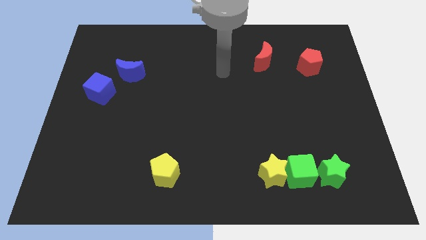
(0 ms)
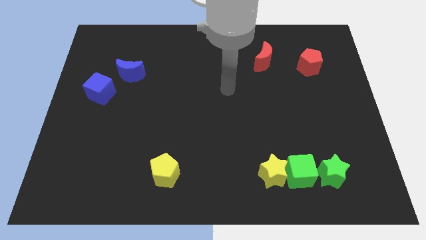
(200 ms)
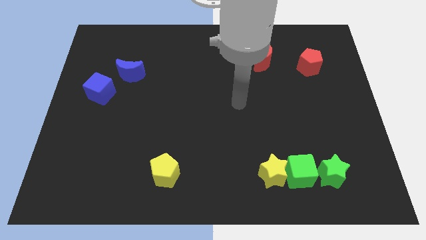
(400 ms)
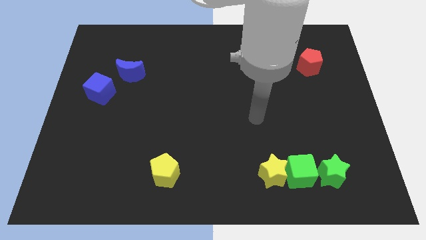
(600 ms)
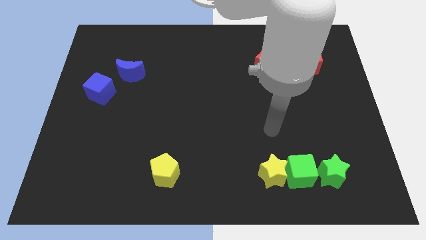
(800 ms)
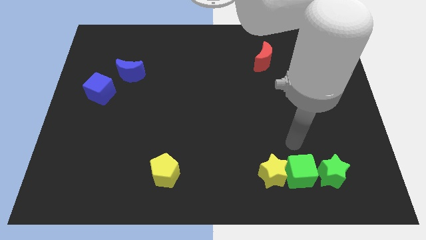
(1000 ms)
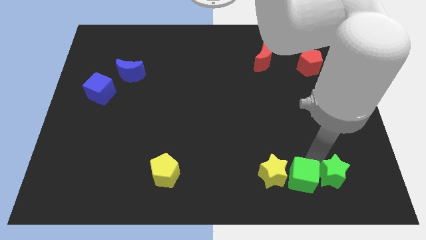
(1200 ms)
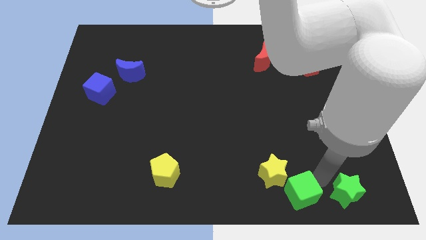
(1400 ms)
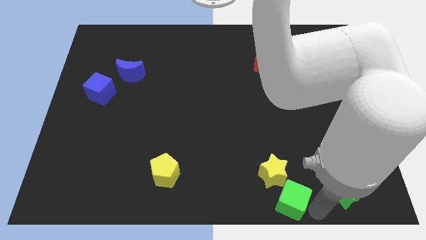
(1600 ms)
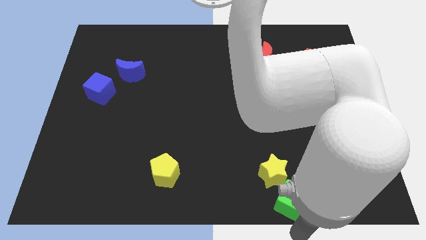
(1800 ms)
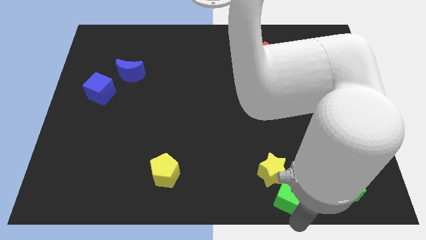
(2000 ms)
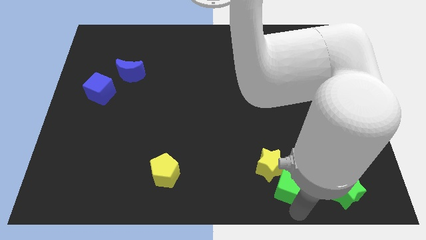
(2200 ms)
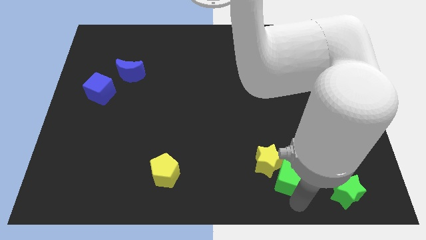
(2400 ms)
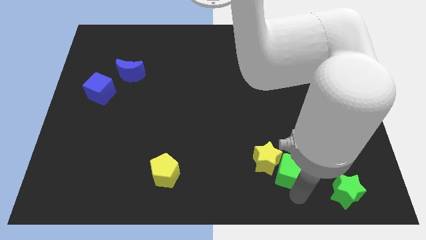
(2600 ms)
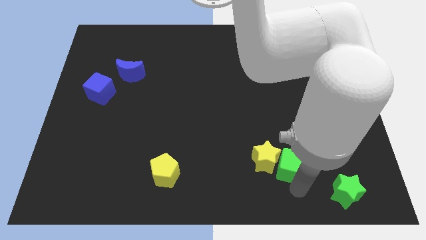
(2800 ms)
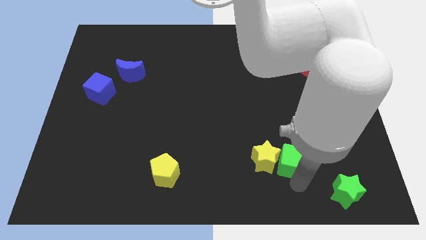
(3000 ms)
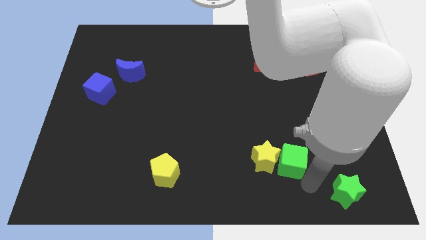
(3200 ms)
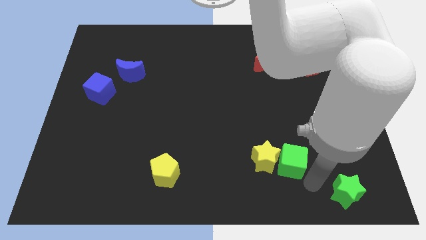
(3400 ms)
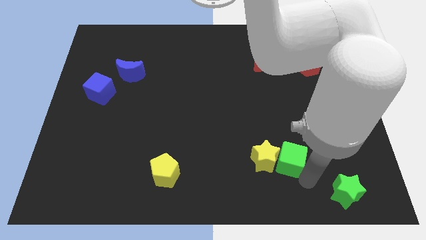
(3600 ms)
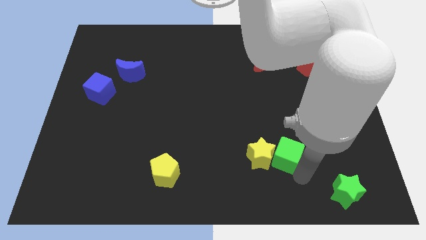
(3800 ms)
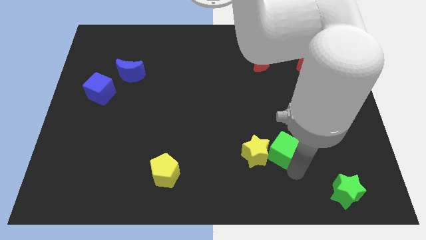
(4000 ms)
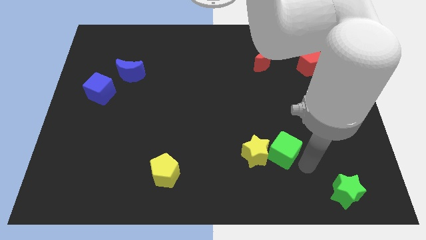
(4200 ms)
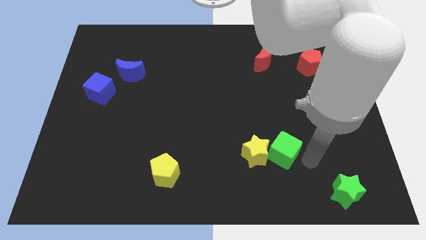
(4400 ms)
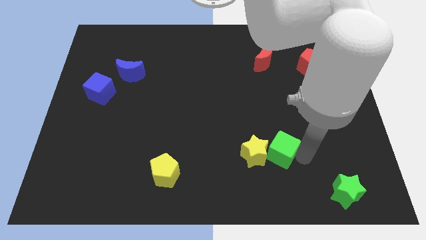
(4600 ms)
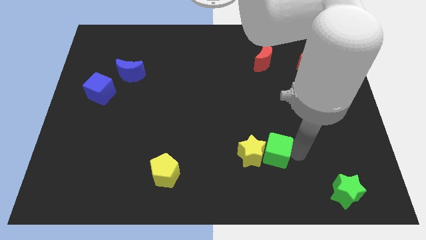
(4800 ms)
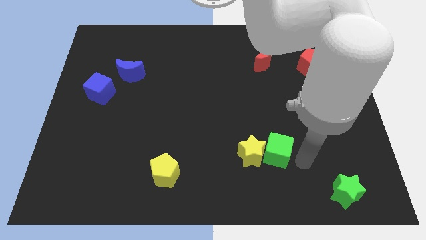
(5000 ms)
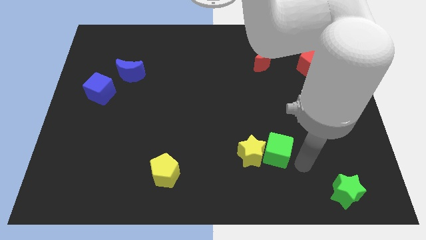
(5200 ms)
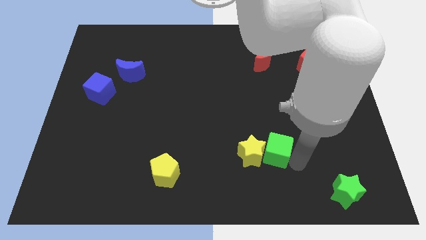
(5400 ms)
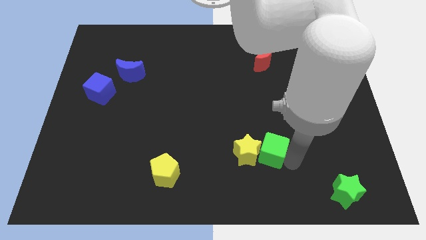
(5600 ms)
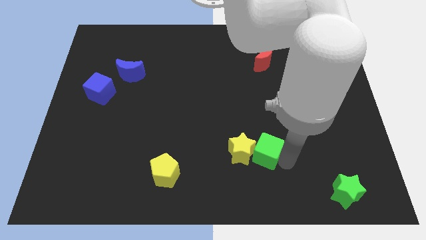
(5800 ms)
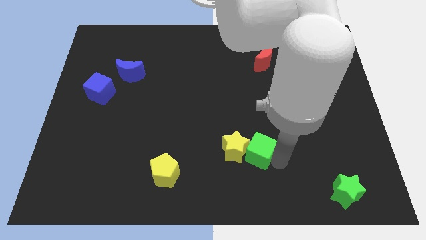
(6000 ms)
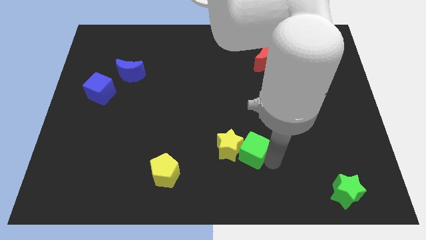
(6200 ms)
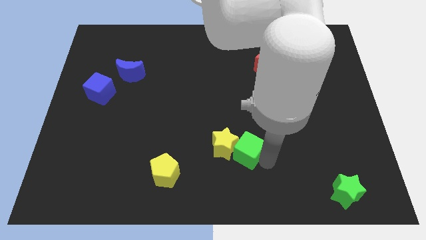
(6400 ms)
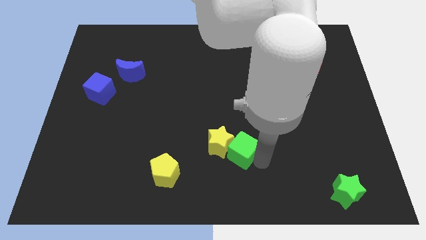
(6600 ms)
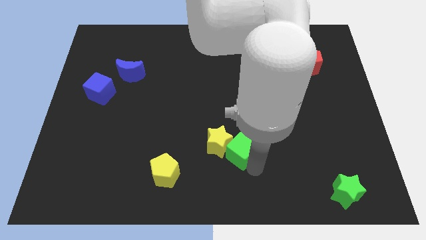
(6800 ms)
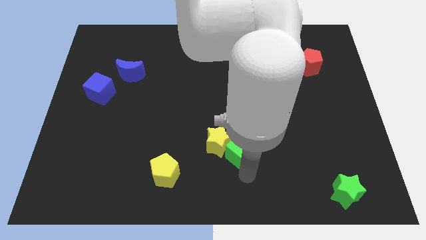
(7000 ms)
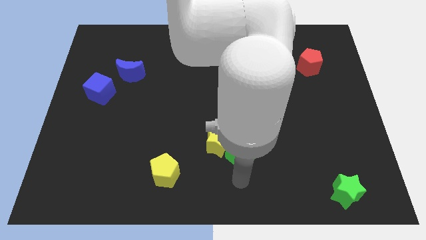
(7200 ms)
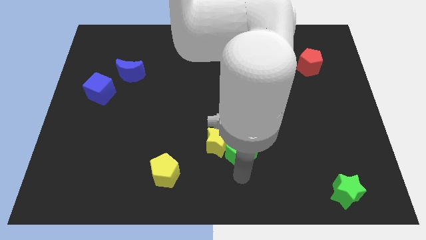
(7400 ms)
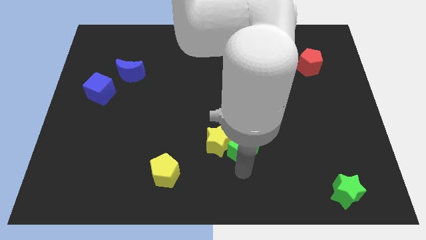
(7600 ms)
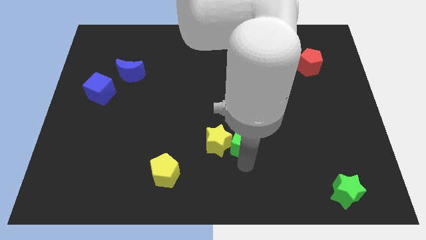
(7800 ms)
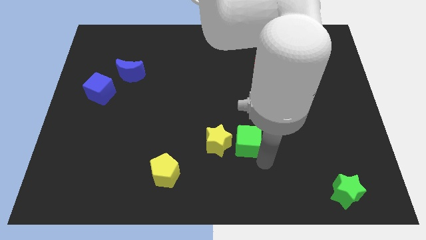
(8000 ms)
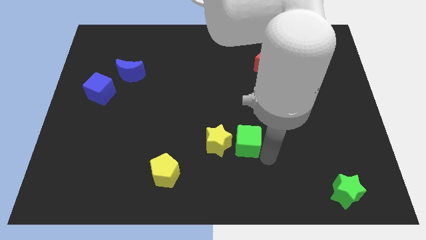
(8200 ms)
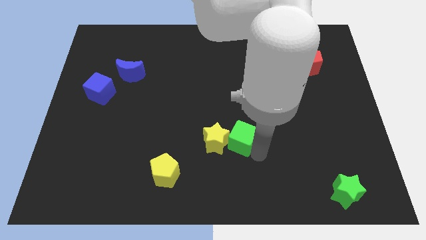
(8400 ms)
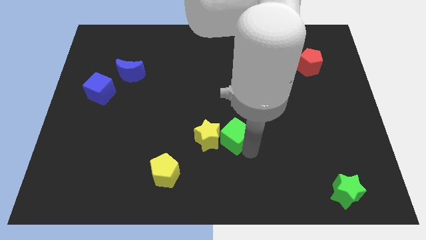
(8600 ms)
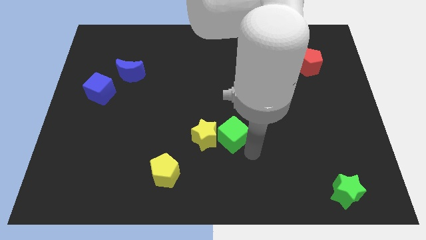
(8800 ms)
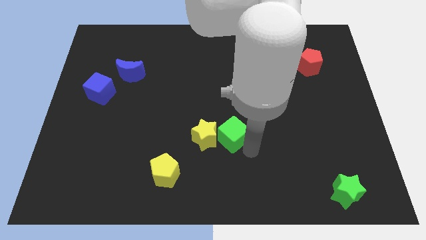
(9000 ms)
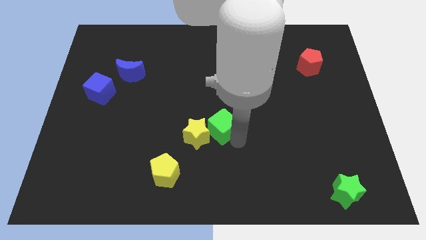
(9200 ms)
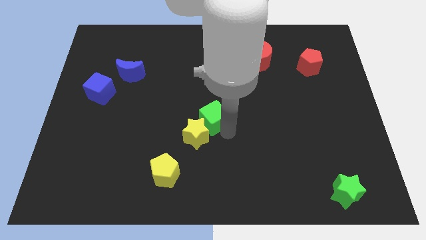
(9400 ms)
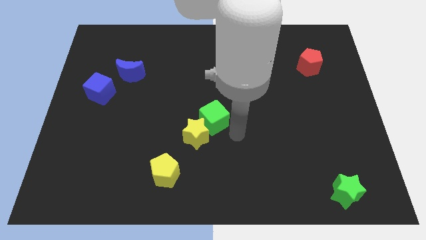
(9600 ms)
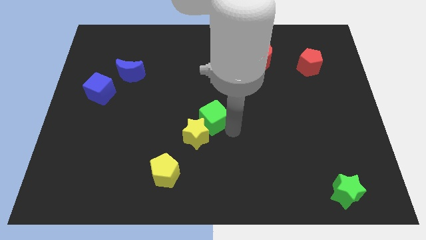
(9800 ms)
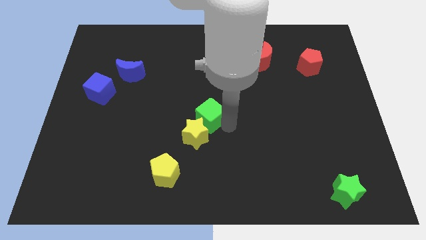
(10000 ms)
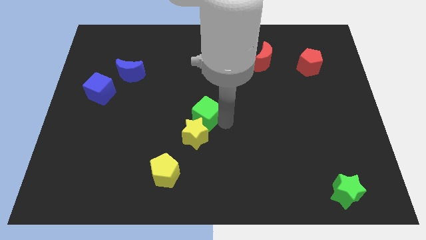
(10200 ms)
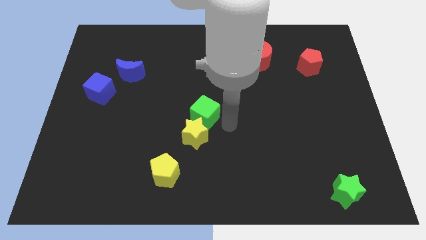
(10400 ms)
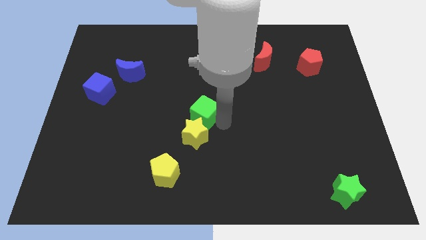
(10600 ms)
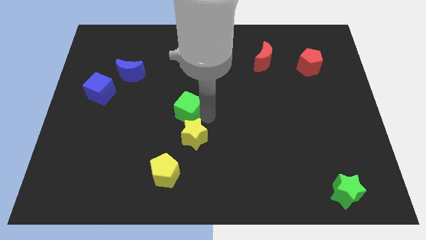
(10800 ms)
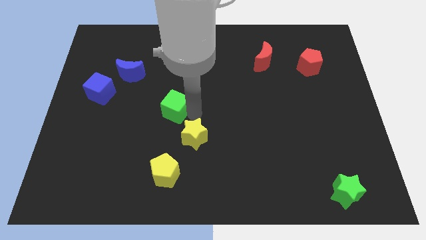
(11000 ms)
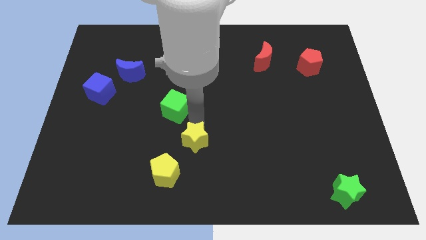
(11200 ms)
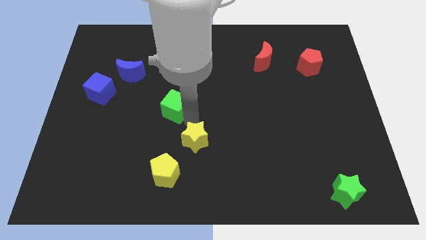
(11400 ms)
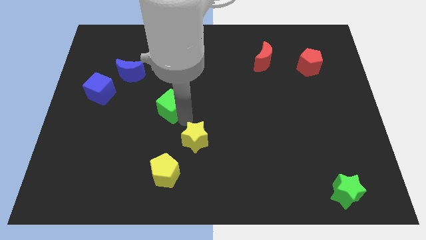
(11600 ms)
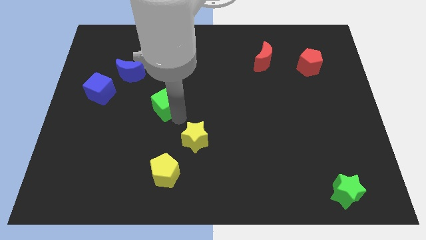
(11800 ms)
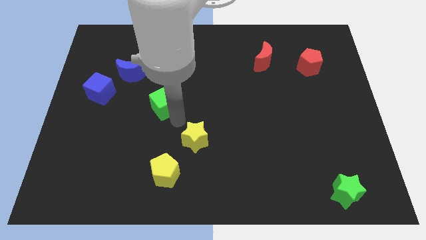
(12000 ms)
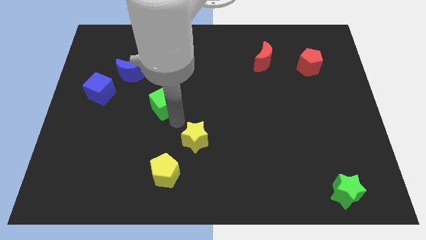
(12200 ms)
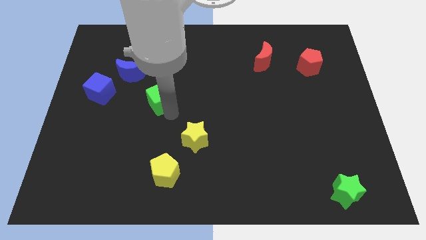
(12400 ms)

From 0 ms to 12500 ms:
move the green cube just right of the blue cube

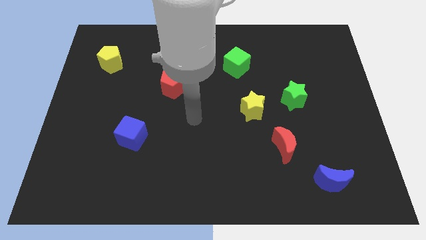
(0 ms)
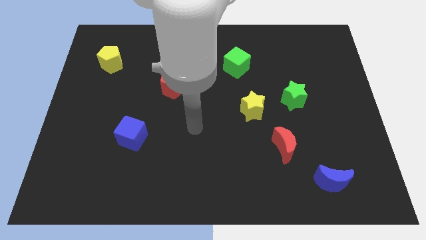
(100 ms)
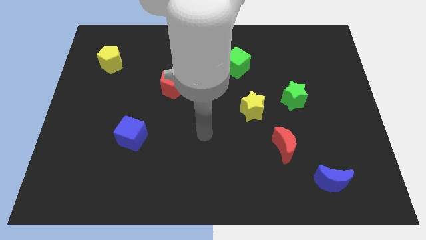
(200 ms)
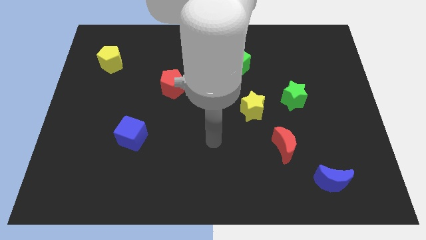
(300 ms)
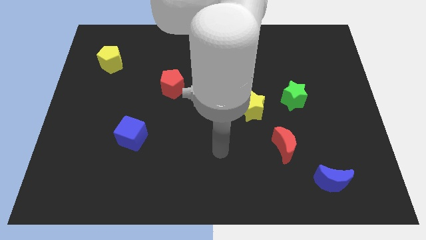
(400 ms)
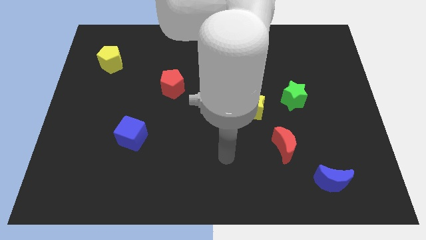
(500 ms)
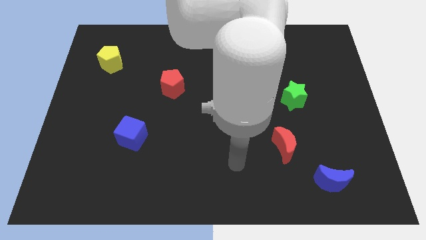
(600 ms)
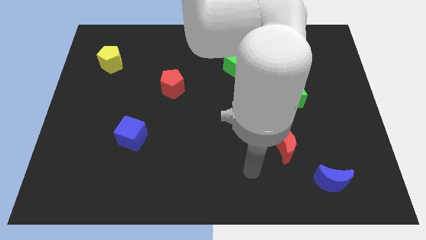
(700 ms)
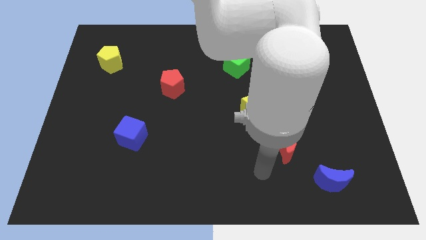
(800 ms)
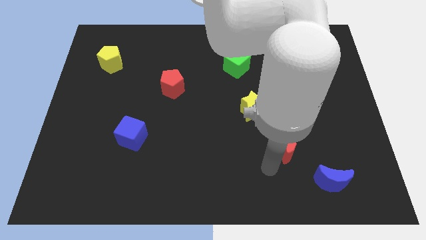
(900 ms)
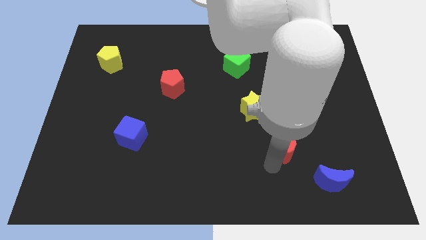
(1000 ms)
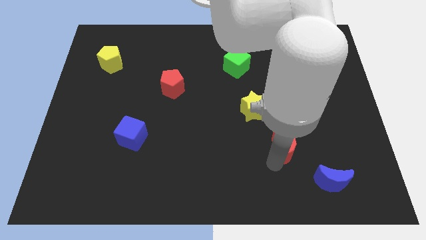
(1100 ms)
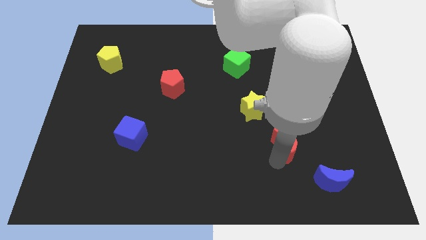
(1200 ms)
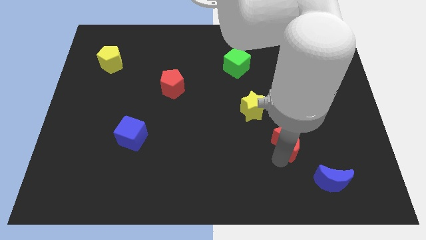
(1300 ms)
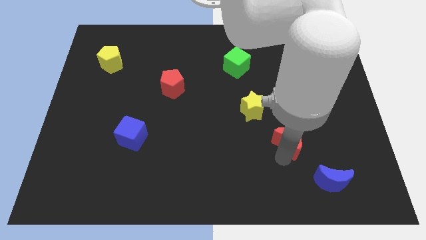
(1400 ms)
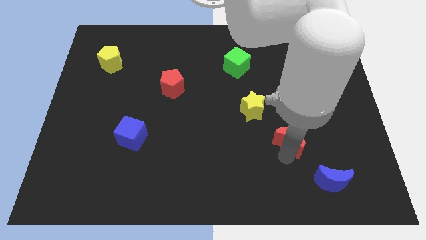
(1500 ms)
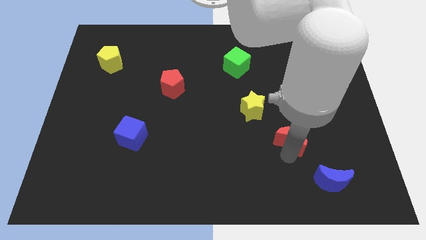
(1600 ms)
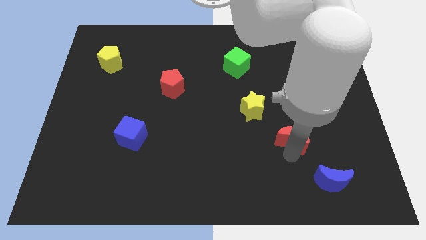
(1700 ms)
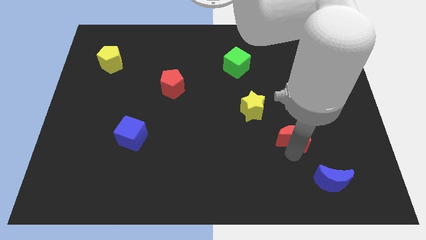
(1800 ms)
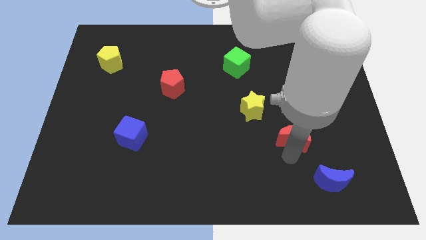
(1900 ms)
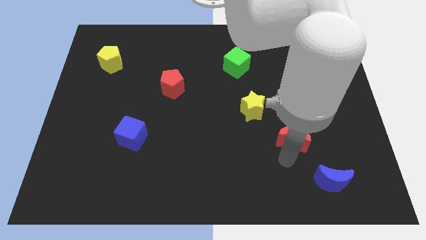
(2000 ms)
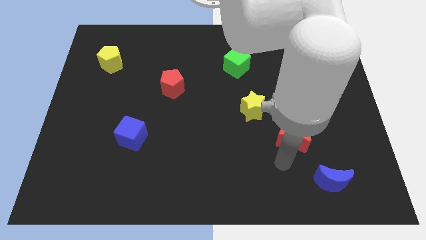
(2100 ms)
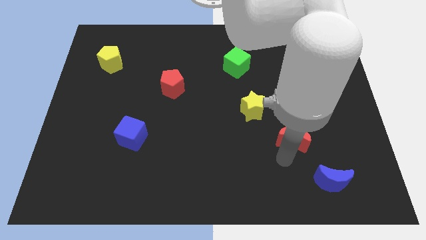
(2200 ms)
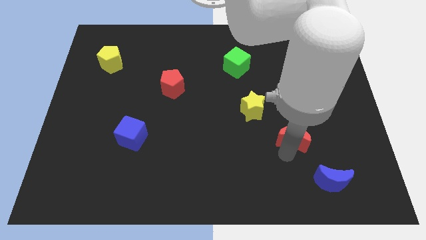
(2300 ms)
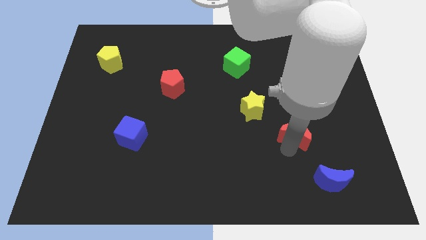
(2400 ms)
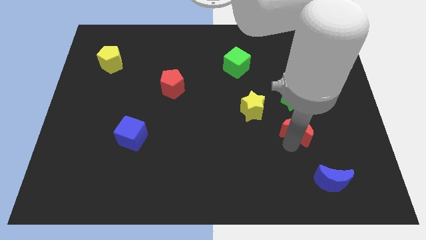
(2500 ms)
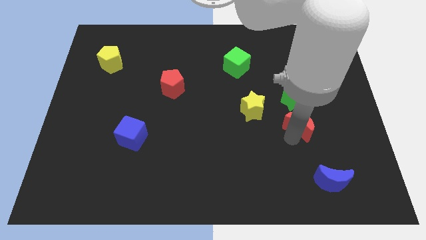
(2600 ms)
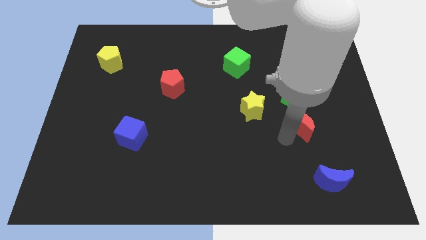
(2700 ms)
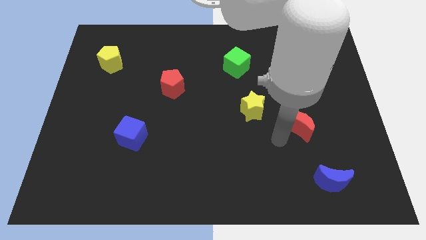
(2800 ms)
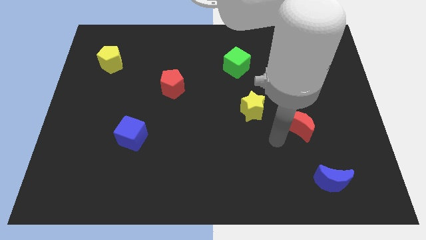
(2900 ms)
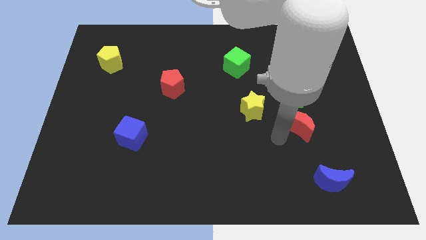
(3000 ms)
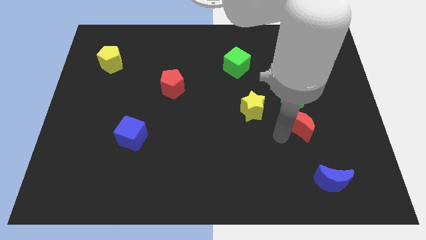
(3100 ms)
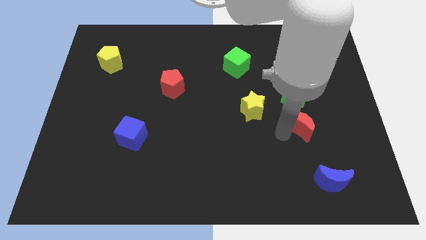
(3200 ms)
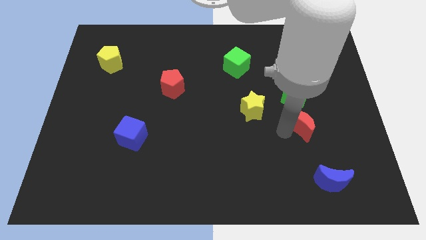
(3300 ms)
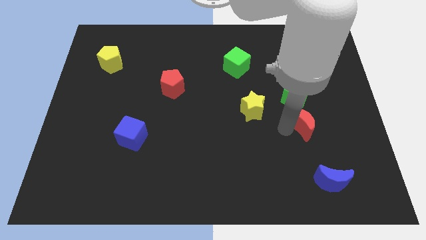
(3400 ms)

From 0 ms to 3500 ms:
put the red moon to the bottom right of the green star
